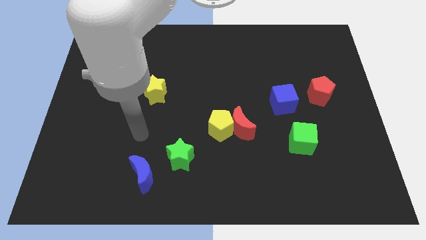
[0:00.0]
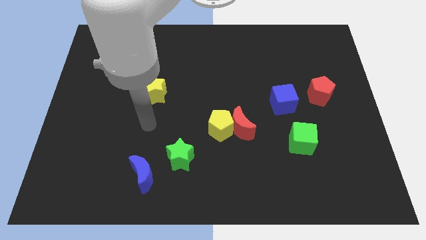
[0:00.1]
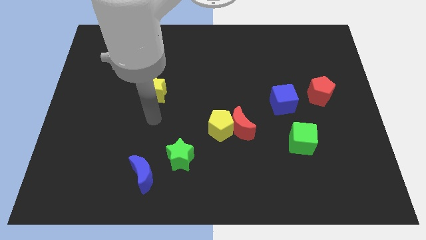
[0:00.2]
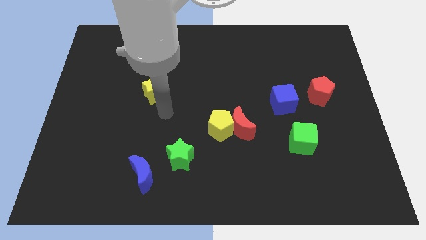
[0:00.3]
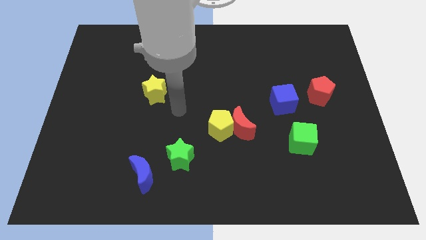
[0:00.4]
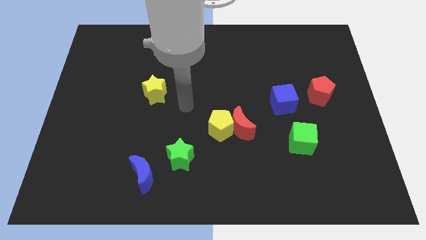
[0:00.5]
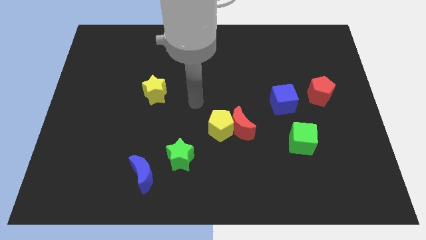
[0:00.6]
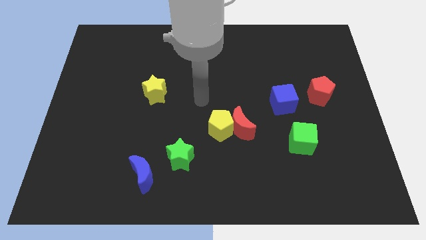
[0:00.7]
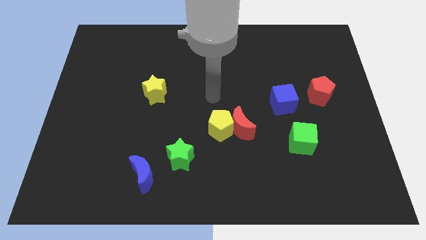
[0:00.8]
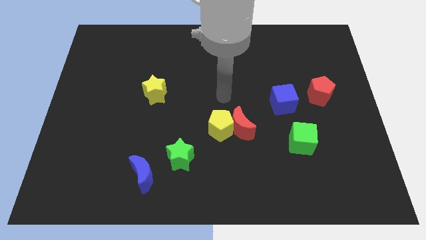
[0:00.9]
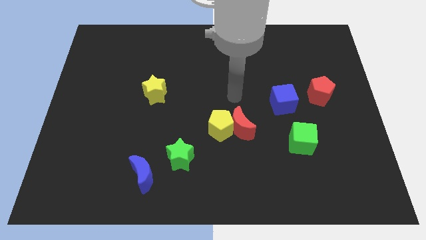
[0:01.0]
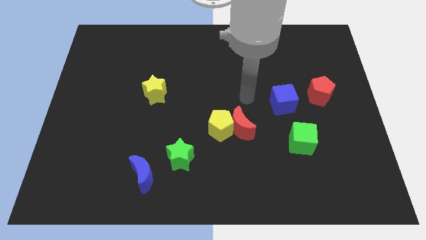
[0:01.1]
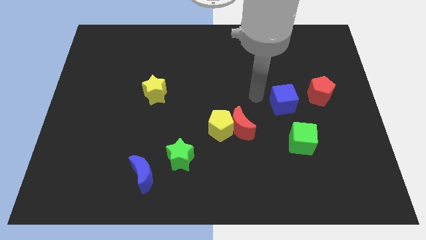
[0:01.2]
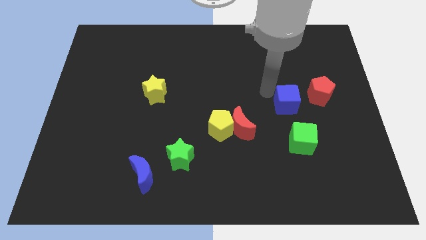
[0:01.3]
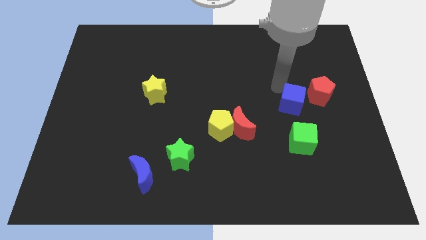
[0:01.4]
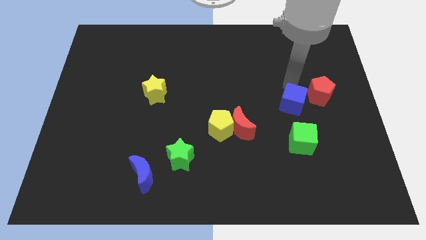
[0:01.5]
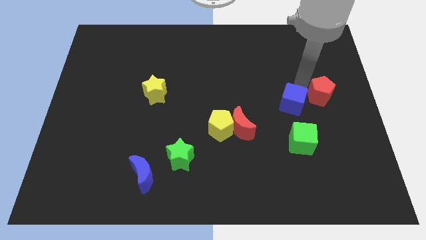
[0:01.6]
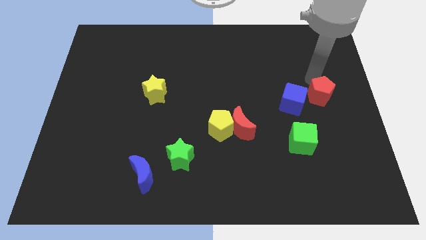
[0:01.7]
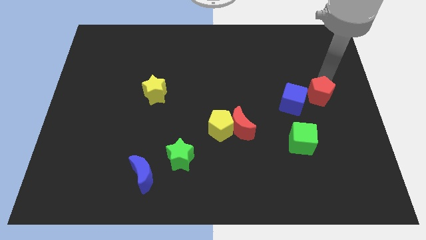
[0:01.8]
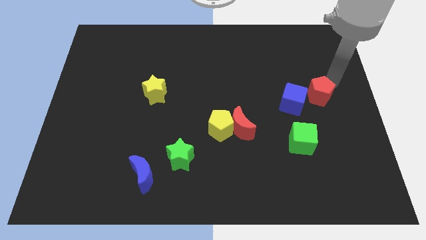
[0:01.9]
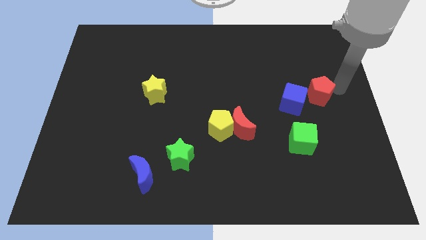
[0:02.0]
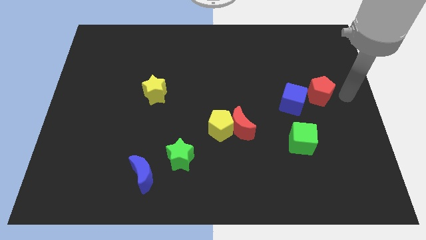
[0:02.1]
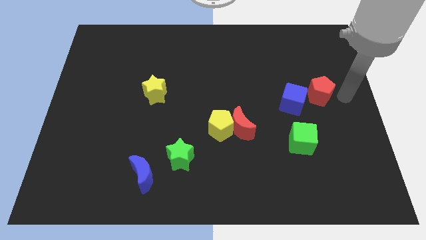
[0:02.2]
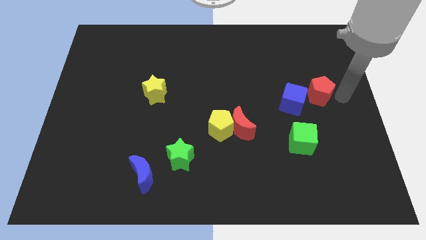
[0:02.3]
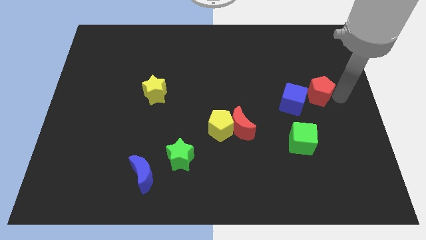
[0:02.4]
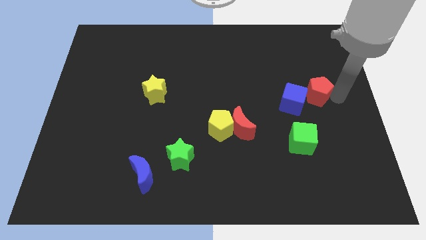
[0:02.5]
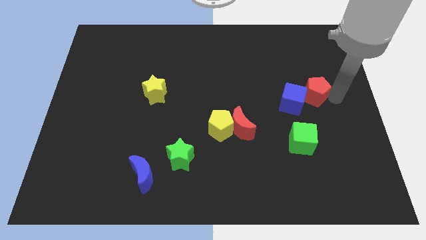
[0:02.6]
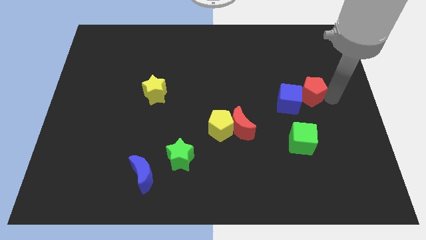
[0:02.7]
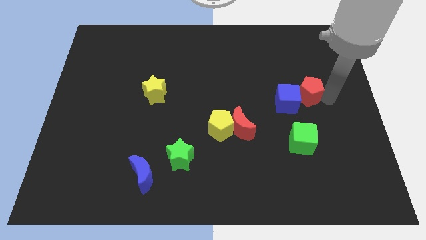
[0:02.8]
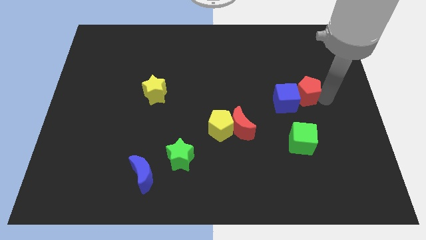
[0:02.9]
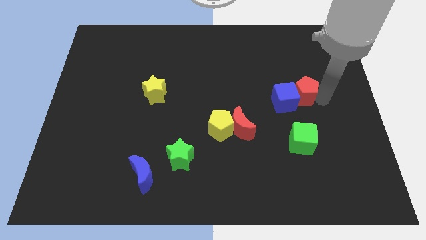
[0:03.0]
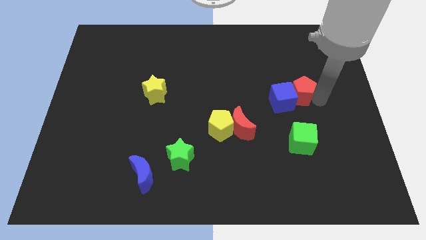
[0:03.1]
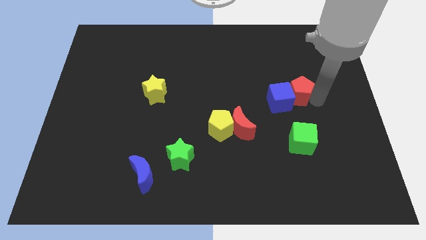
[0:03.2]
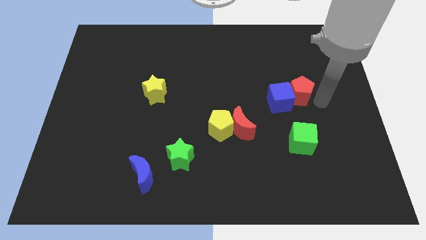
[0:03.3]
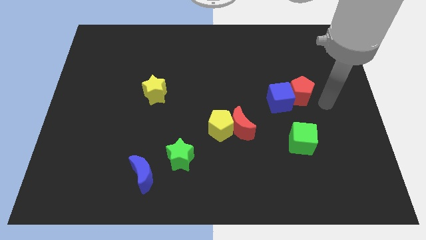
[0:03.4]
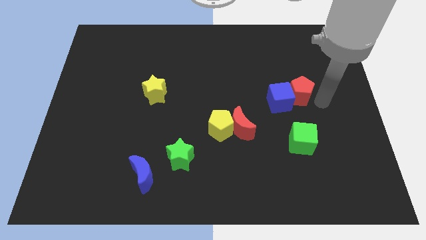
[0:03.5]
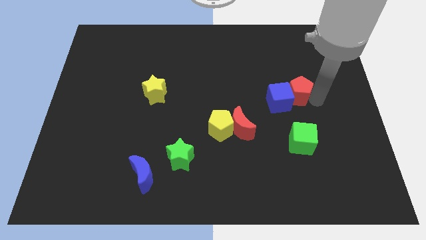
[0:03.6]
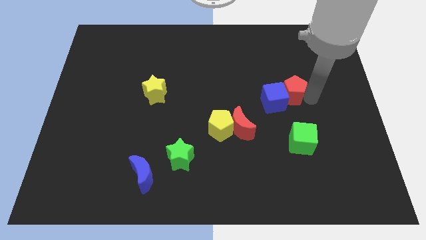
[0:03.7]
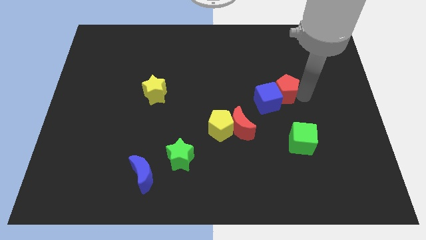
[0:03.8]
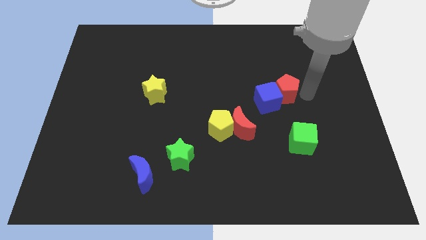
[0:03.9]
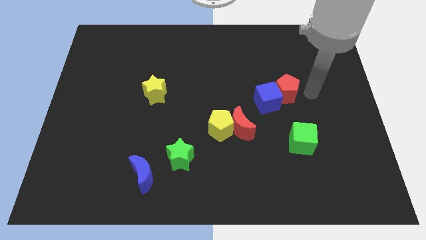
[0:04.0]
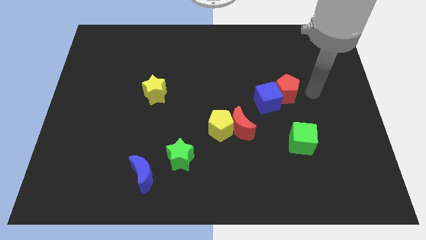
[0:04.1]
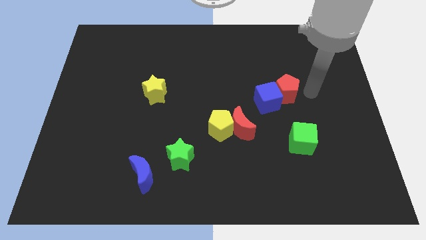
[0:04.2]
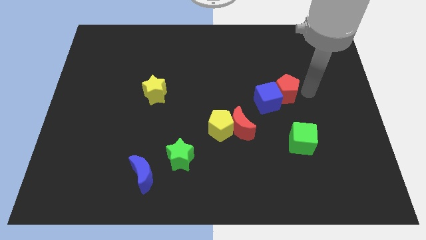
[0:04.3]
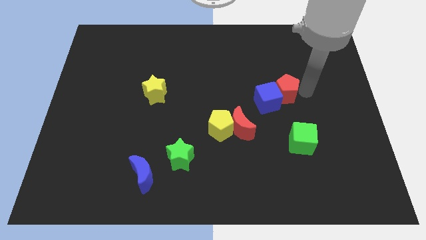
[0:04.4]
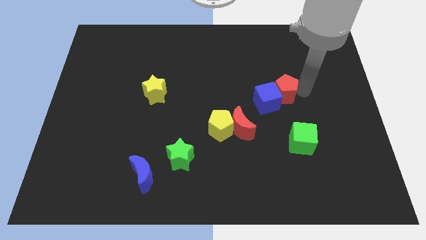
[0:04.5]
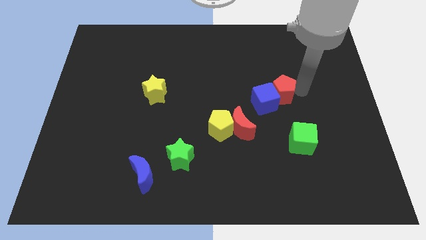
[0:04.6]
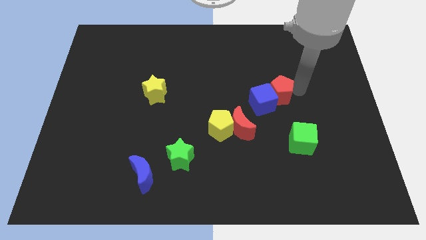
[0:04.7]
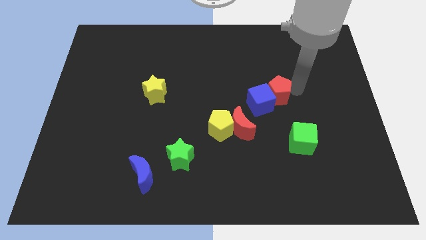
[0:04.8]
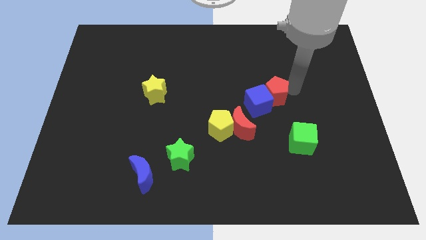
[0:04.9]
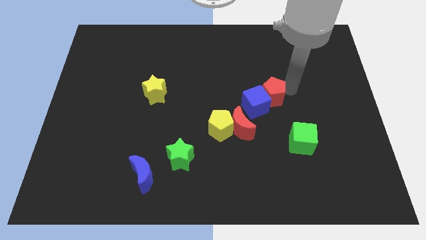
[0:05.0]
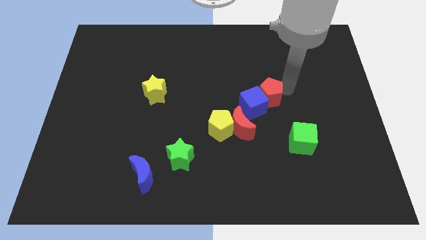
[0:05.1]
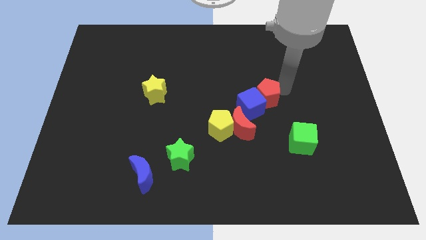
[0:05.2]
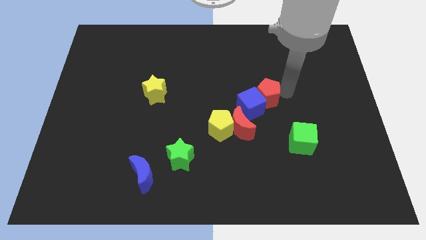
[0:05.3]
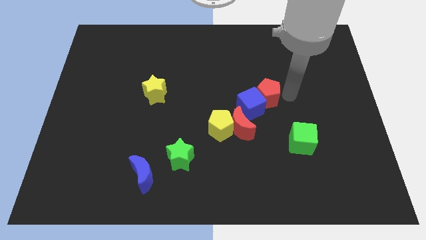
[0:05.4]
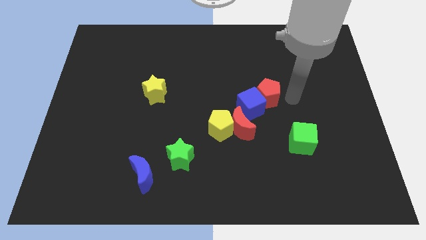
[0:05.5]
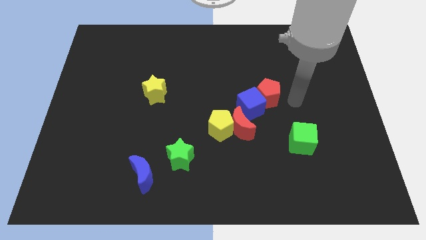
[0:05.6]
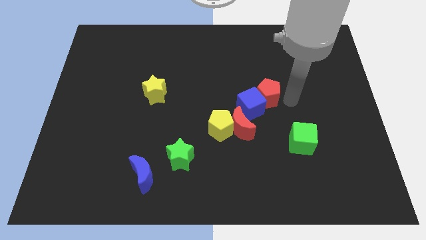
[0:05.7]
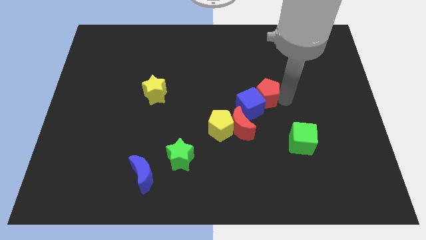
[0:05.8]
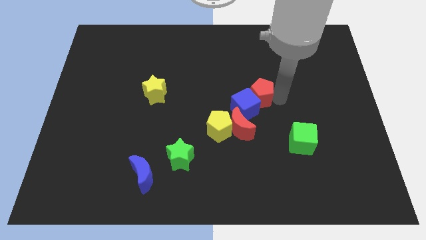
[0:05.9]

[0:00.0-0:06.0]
put the red pentagon to the center of the board
